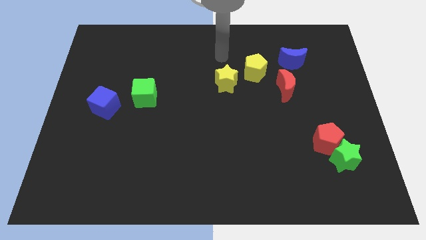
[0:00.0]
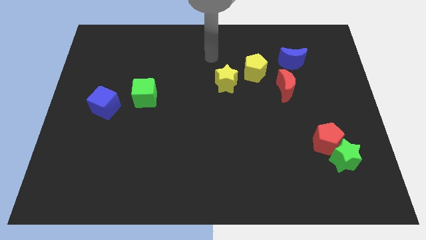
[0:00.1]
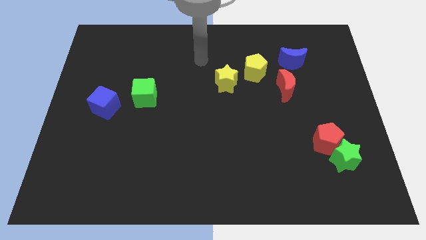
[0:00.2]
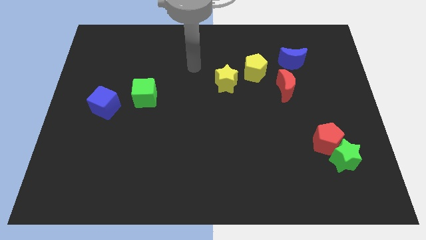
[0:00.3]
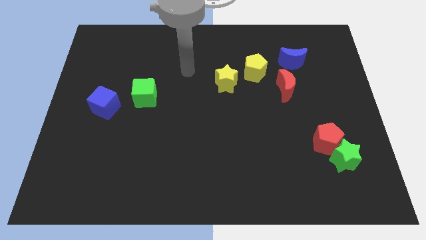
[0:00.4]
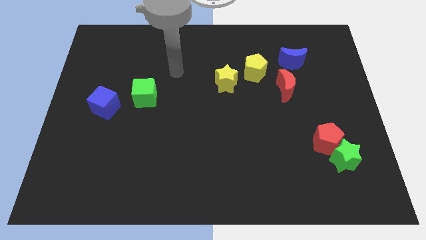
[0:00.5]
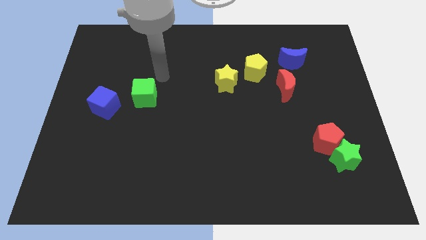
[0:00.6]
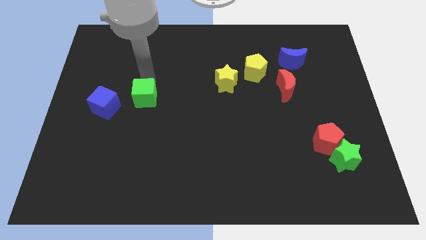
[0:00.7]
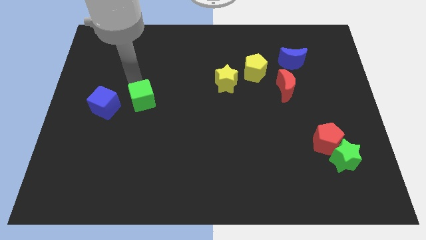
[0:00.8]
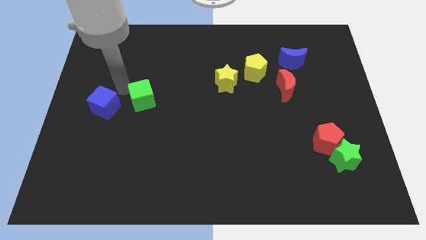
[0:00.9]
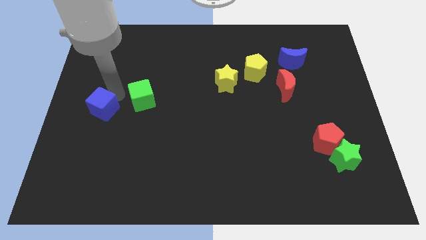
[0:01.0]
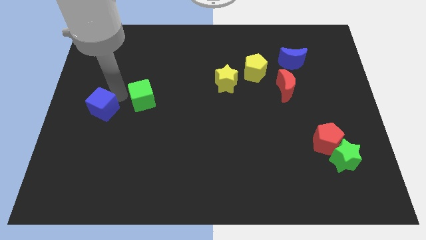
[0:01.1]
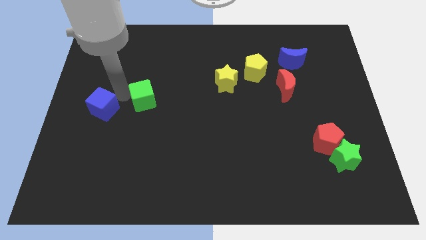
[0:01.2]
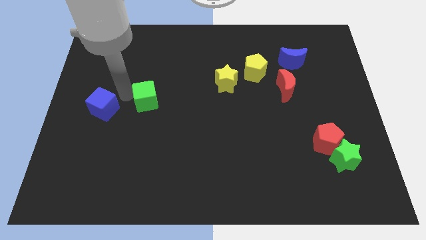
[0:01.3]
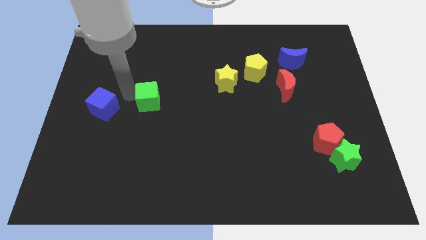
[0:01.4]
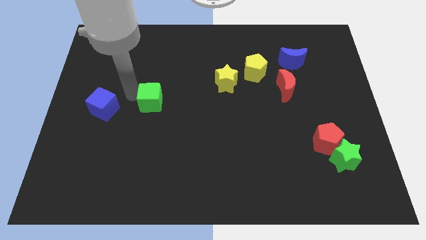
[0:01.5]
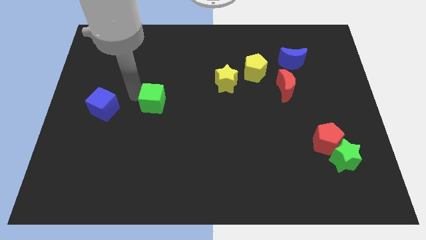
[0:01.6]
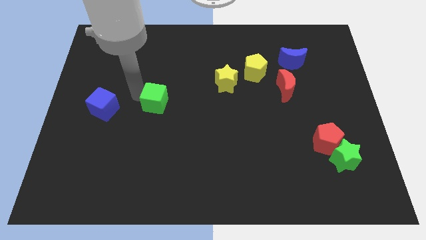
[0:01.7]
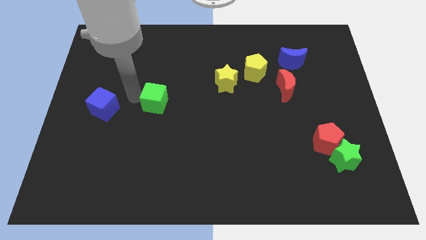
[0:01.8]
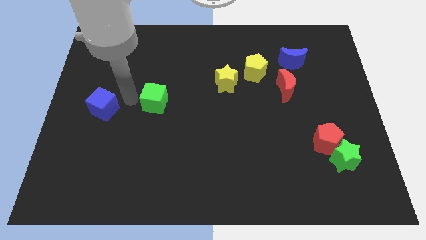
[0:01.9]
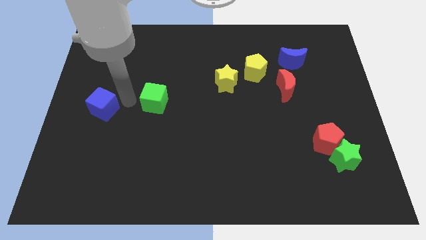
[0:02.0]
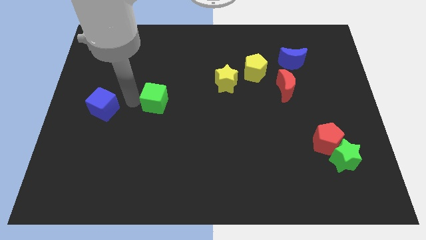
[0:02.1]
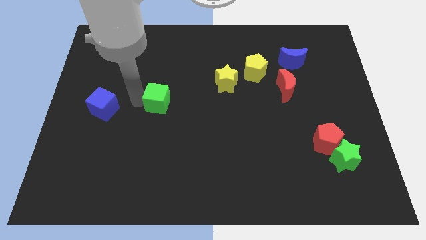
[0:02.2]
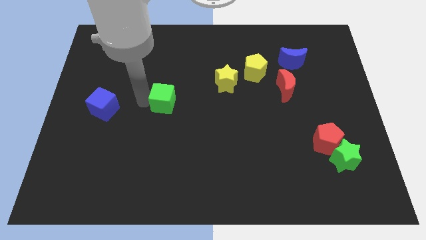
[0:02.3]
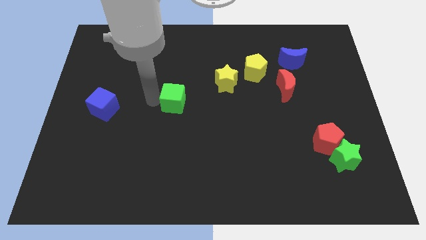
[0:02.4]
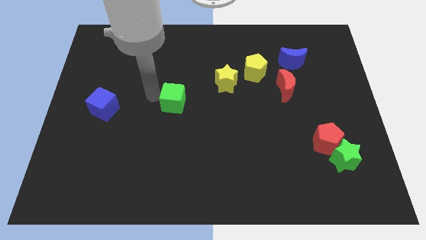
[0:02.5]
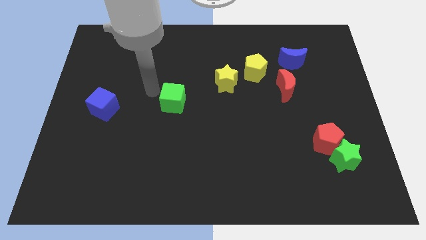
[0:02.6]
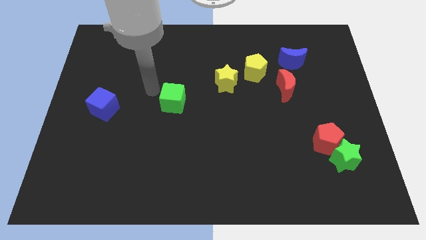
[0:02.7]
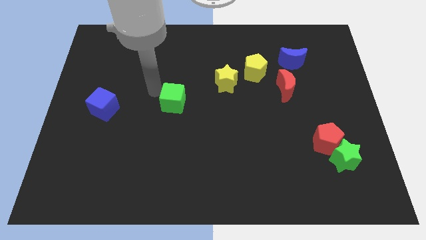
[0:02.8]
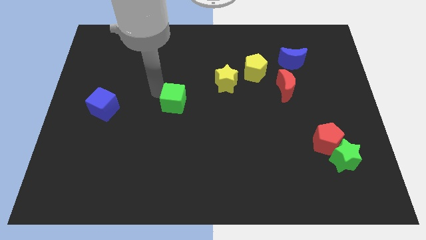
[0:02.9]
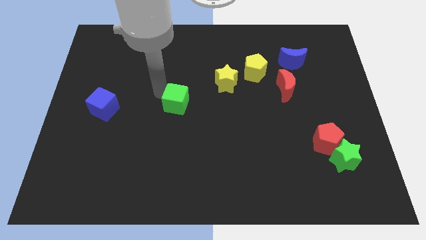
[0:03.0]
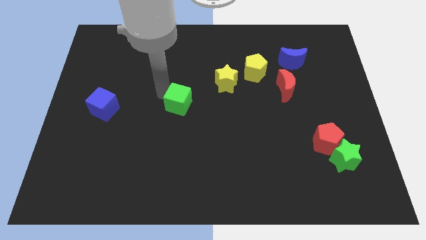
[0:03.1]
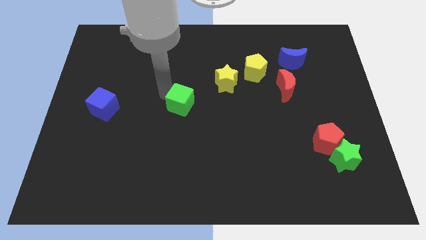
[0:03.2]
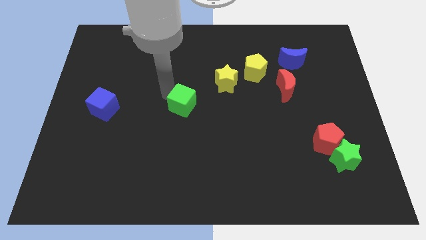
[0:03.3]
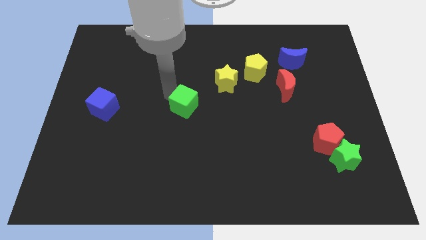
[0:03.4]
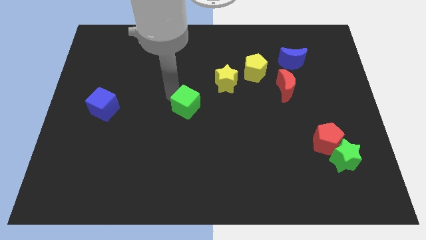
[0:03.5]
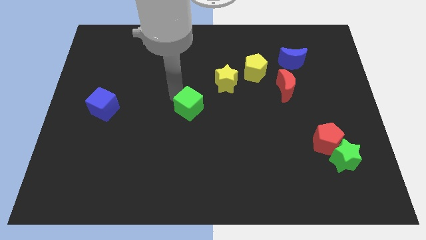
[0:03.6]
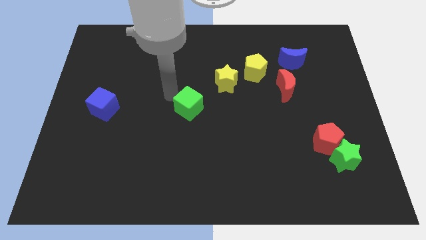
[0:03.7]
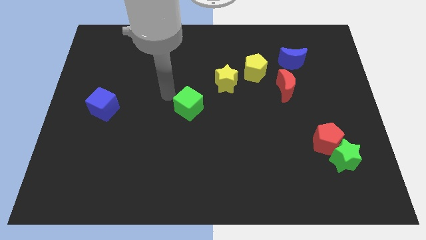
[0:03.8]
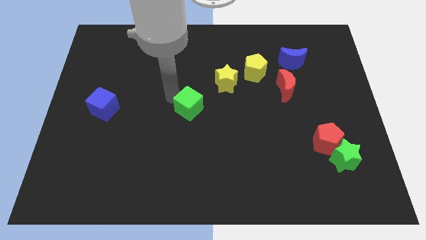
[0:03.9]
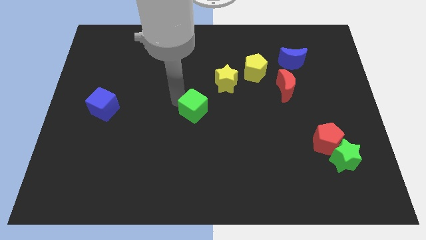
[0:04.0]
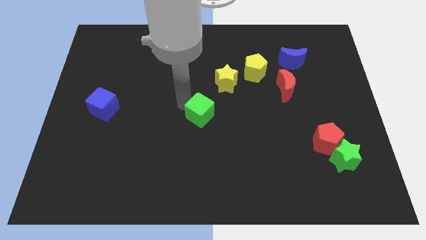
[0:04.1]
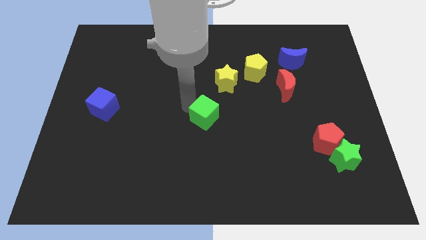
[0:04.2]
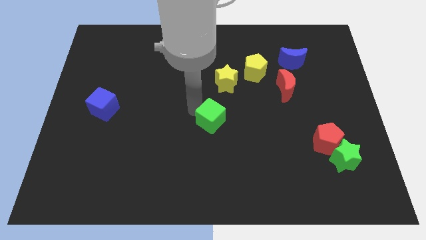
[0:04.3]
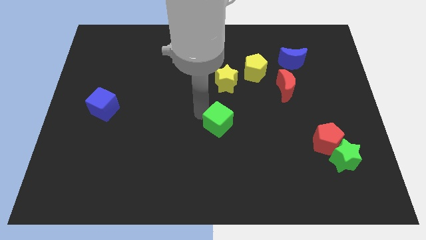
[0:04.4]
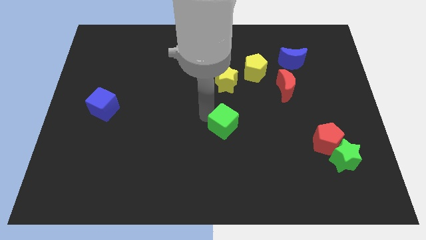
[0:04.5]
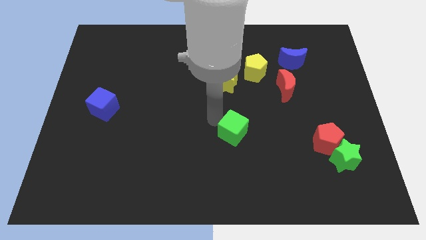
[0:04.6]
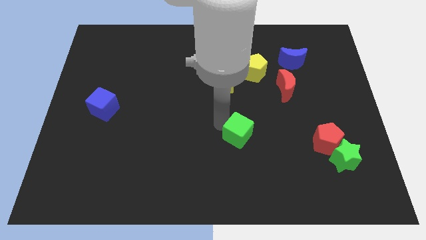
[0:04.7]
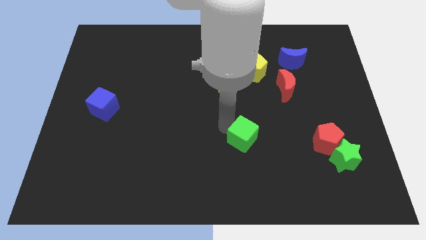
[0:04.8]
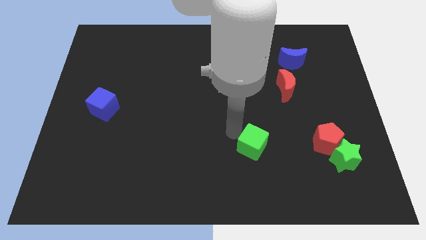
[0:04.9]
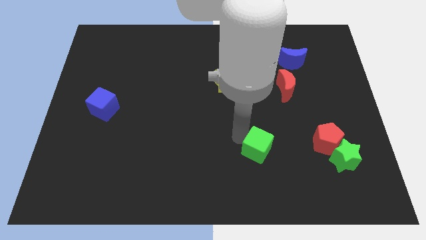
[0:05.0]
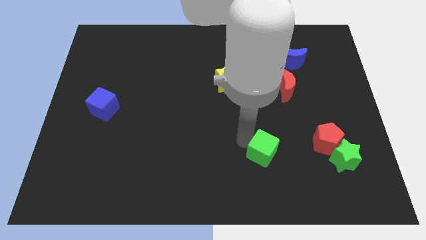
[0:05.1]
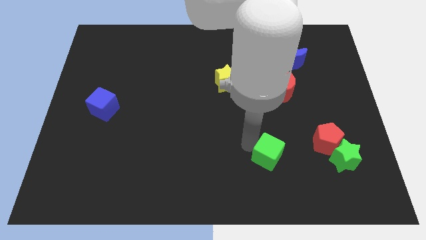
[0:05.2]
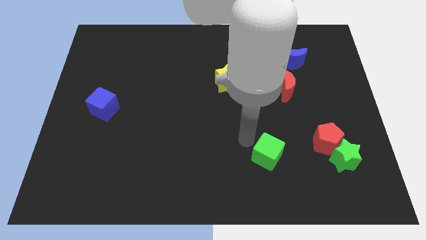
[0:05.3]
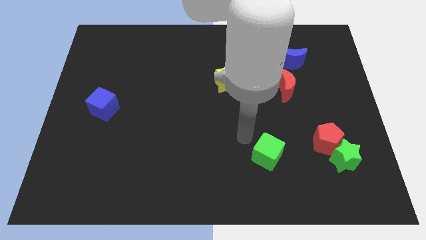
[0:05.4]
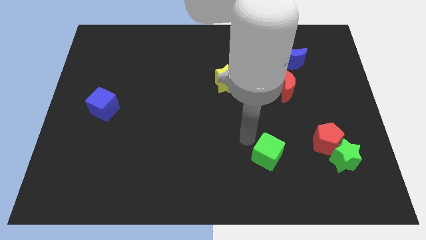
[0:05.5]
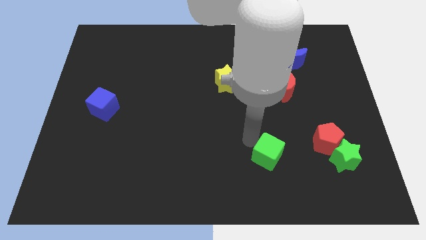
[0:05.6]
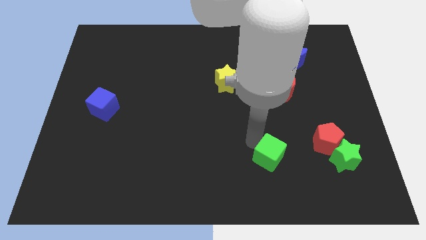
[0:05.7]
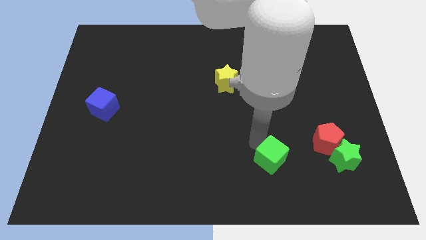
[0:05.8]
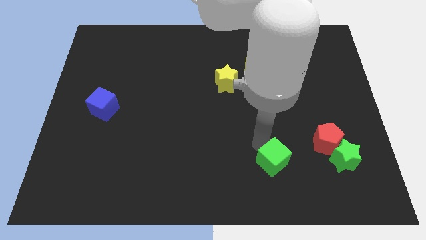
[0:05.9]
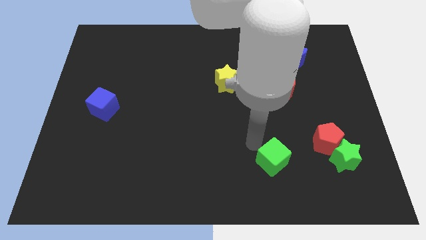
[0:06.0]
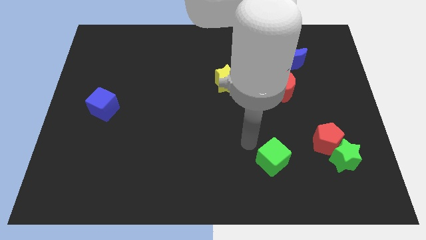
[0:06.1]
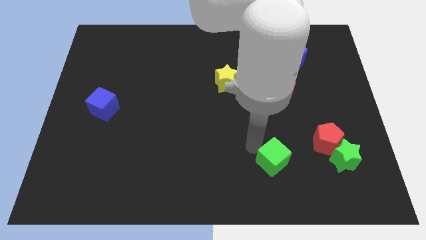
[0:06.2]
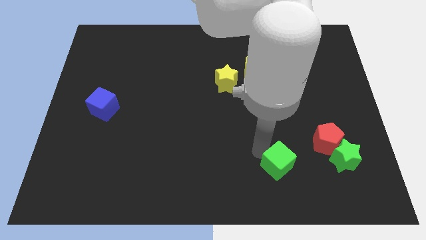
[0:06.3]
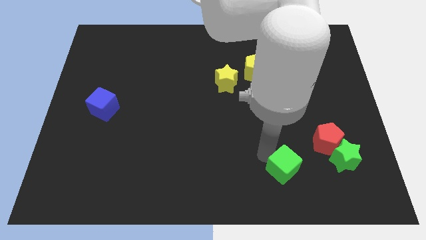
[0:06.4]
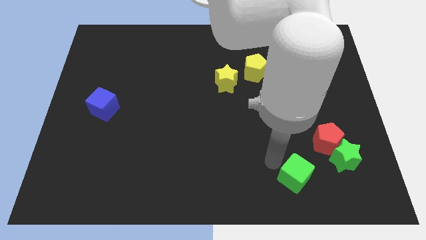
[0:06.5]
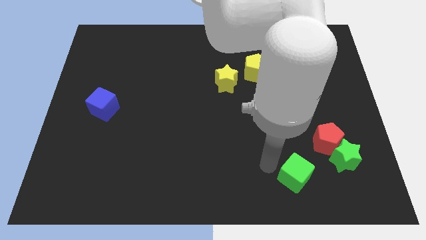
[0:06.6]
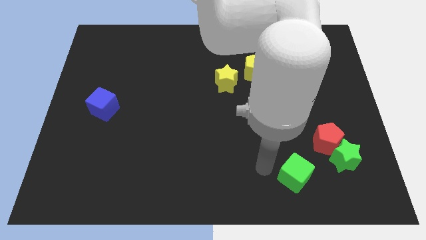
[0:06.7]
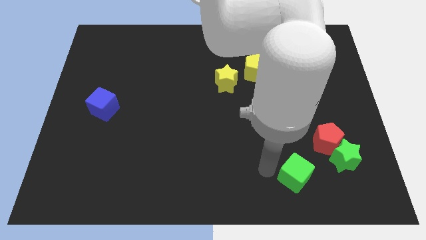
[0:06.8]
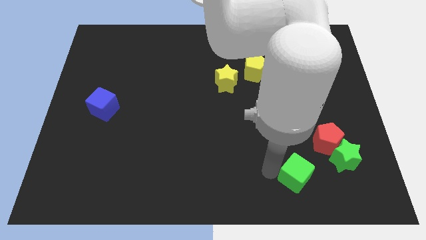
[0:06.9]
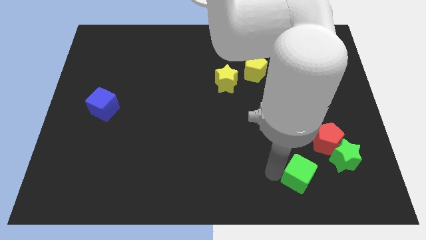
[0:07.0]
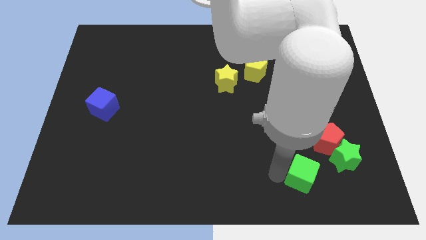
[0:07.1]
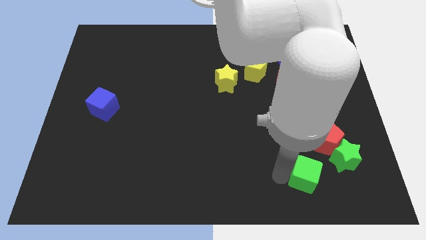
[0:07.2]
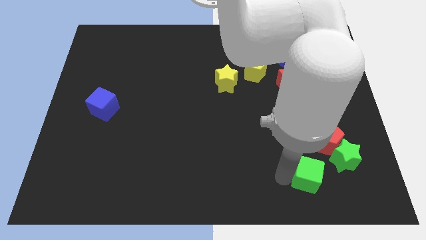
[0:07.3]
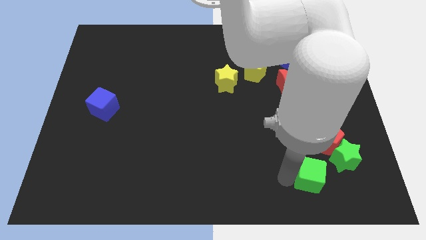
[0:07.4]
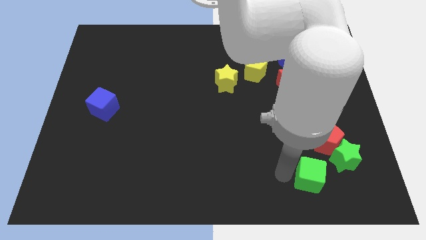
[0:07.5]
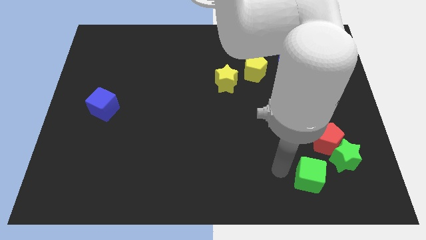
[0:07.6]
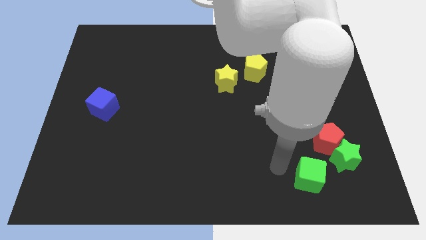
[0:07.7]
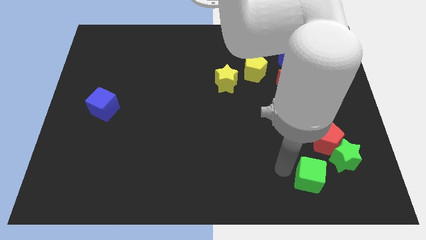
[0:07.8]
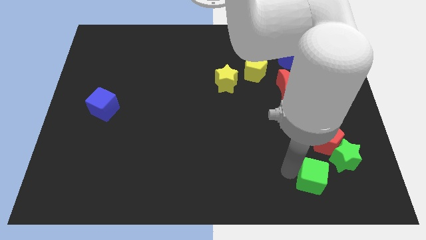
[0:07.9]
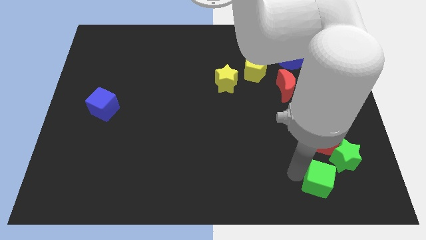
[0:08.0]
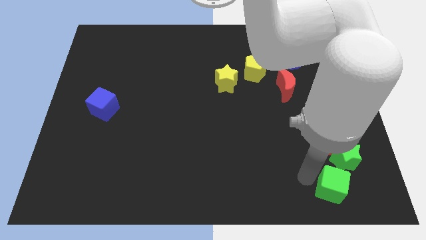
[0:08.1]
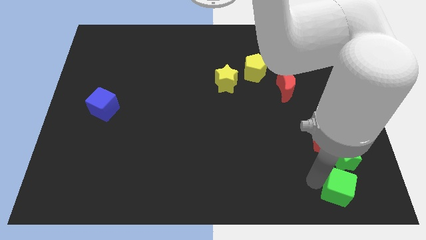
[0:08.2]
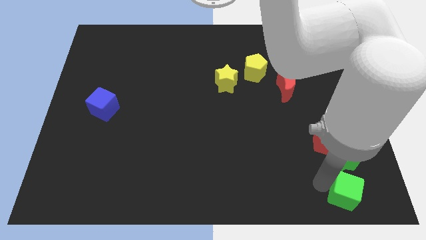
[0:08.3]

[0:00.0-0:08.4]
push the green cube to the bottom right corner
